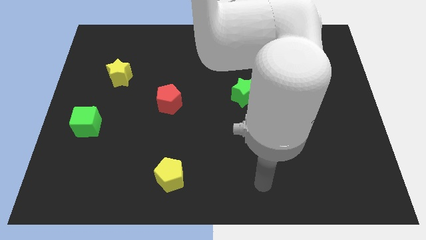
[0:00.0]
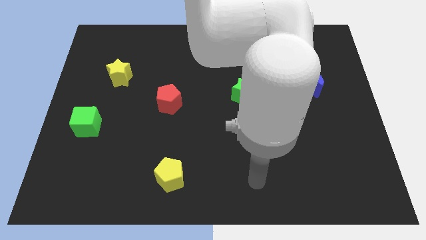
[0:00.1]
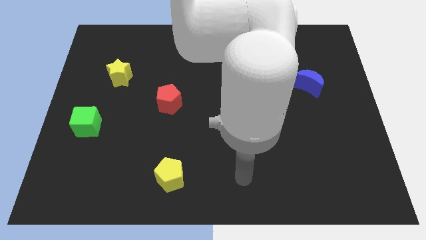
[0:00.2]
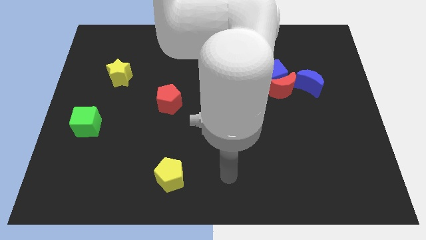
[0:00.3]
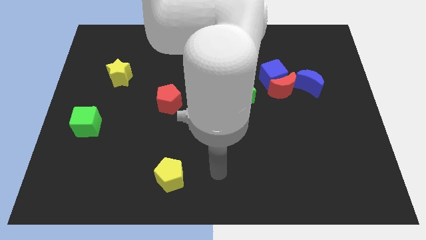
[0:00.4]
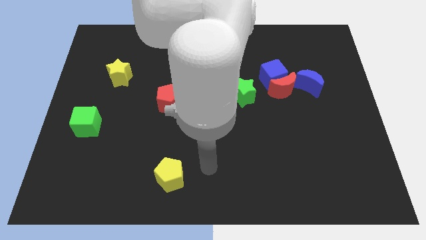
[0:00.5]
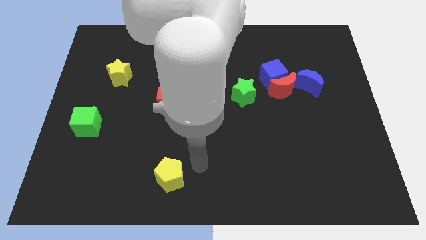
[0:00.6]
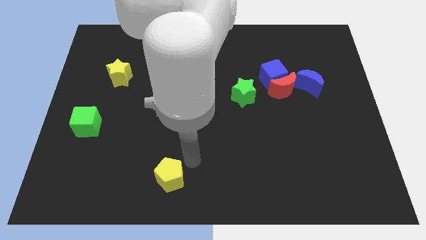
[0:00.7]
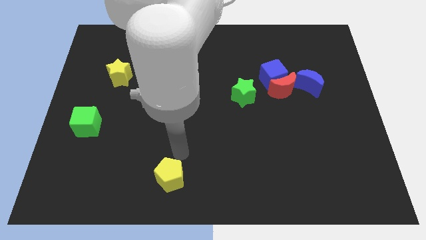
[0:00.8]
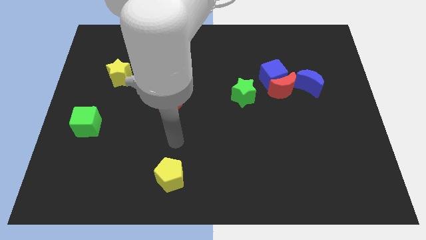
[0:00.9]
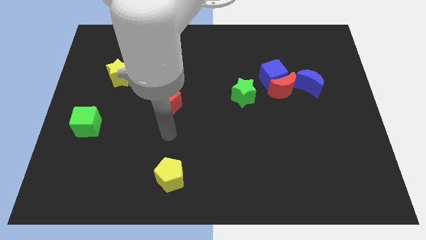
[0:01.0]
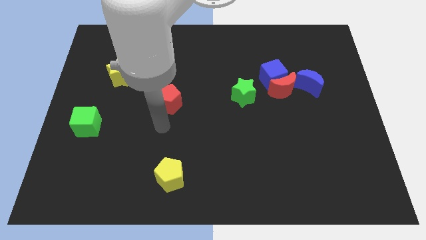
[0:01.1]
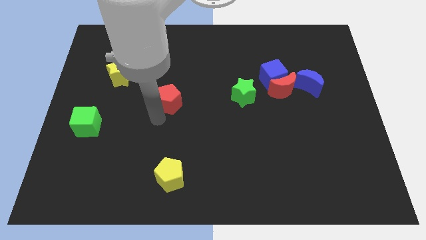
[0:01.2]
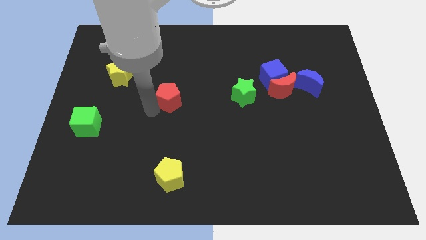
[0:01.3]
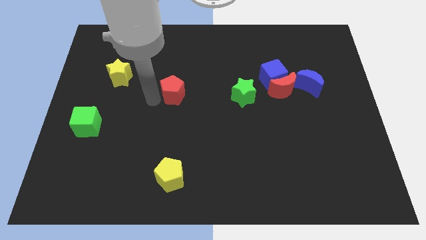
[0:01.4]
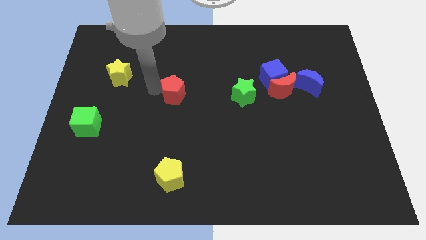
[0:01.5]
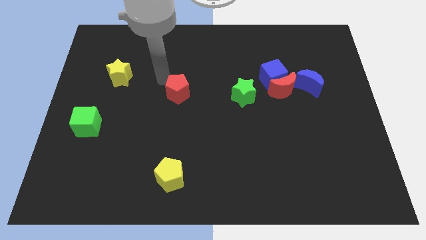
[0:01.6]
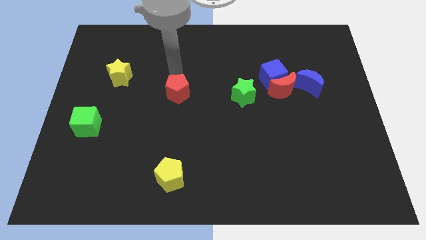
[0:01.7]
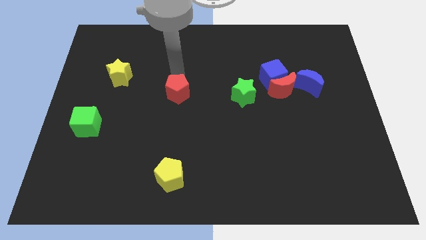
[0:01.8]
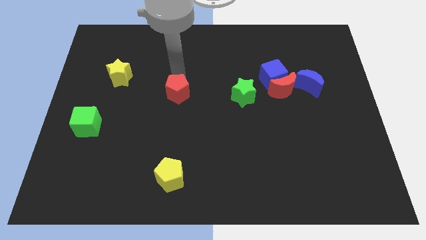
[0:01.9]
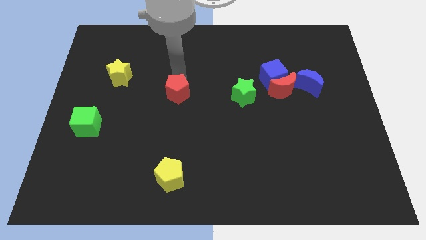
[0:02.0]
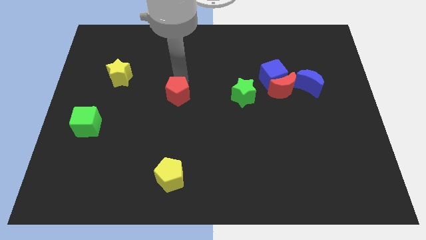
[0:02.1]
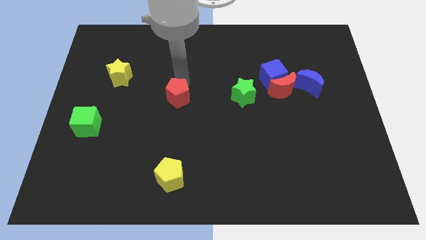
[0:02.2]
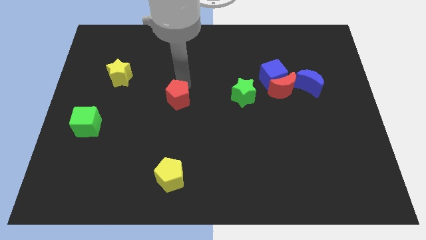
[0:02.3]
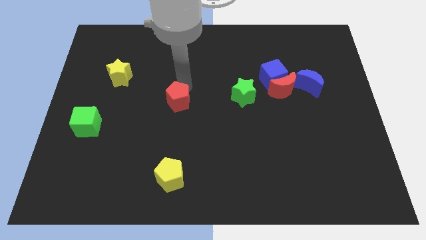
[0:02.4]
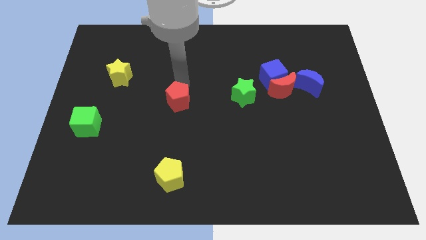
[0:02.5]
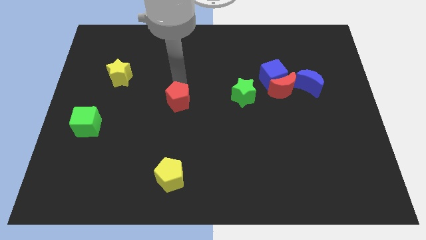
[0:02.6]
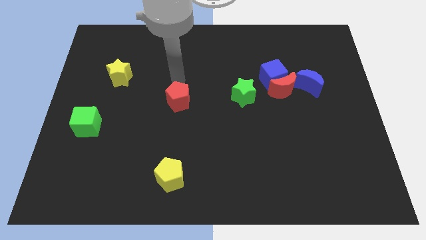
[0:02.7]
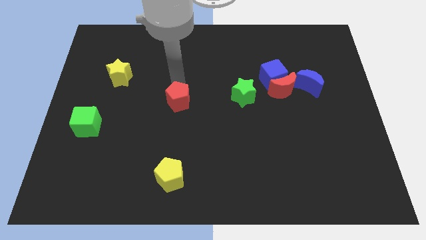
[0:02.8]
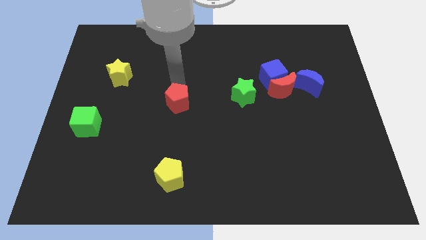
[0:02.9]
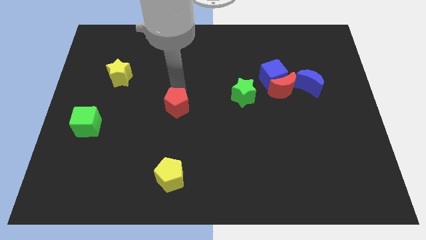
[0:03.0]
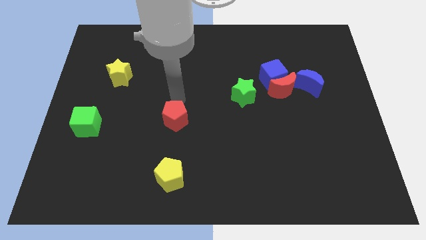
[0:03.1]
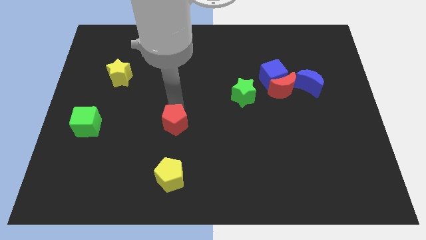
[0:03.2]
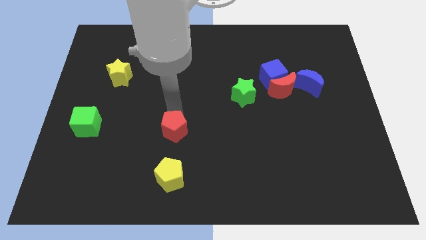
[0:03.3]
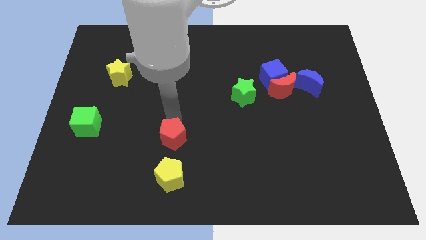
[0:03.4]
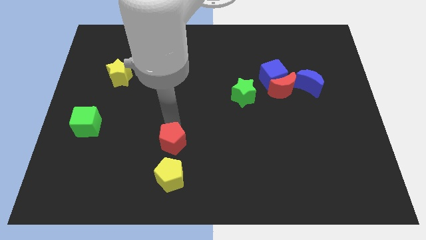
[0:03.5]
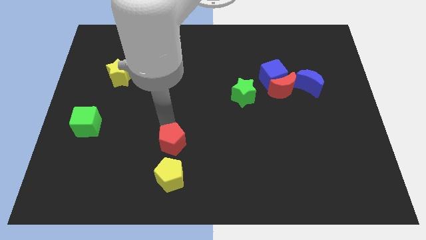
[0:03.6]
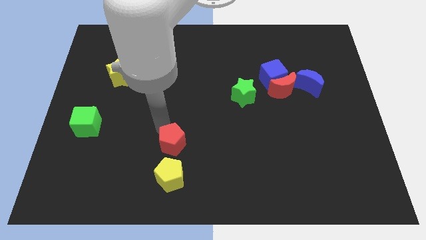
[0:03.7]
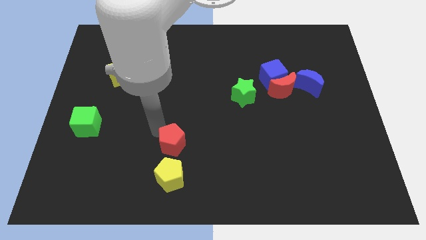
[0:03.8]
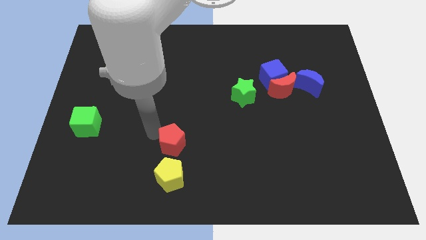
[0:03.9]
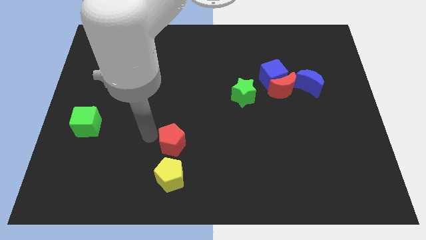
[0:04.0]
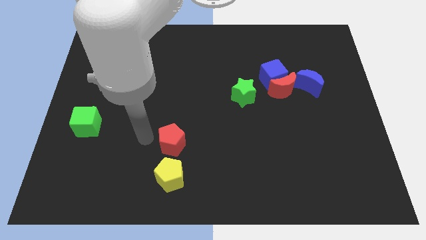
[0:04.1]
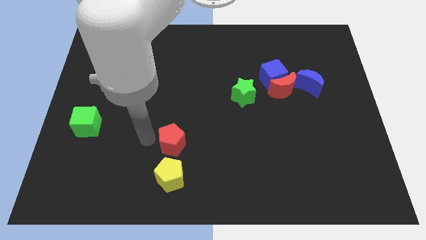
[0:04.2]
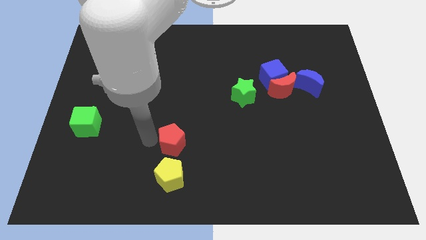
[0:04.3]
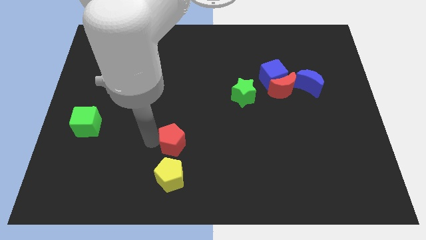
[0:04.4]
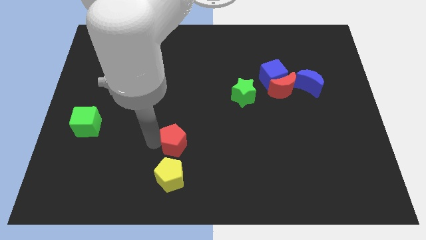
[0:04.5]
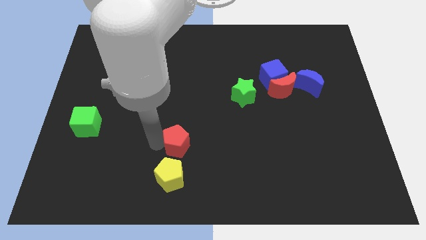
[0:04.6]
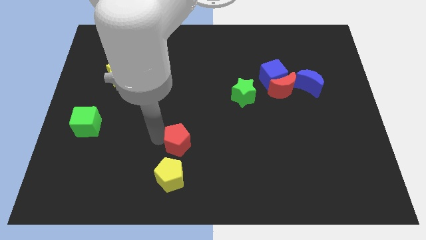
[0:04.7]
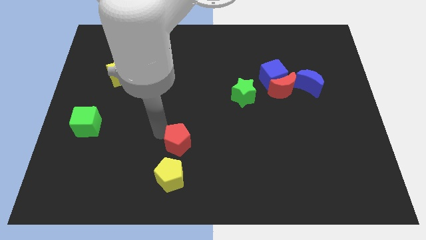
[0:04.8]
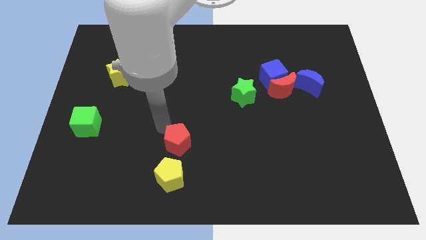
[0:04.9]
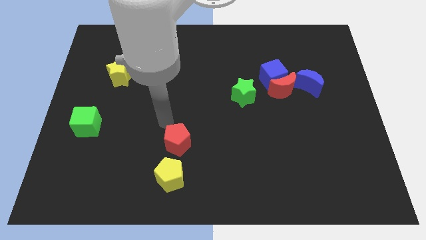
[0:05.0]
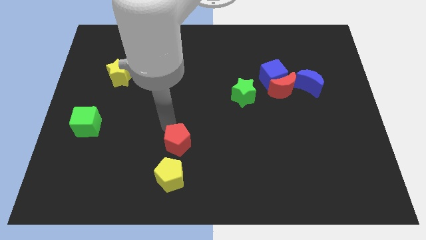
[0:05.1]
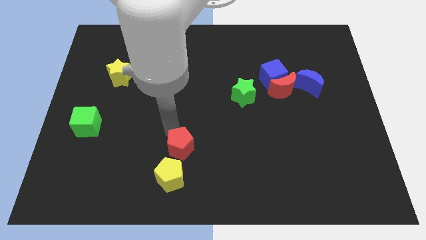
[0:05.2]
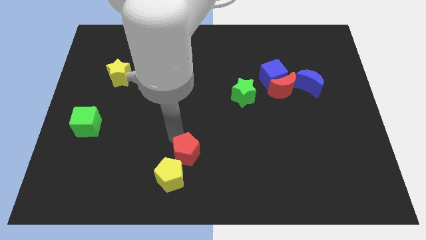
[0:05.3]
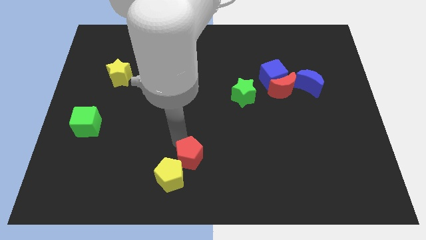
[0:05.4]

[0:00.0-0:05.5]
push the red pentagon to the bottom side

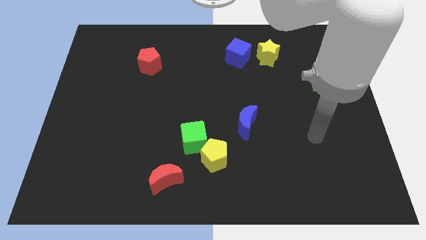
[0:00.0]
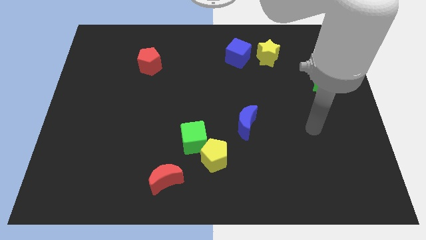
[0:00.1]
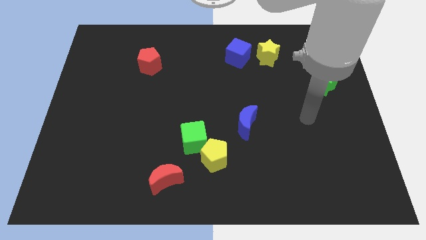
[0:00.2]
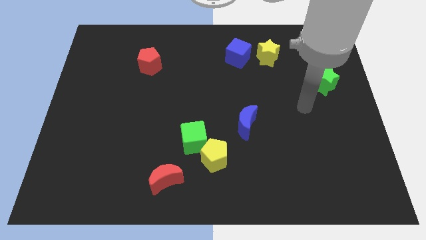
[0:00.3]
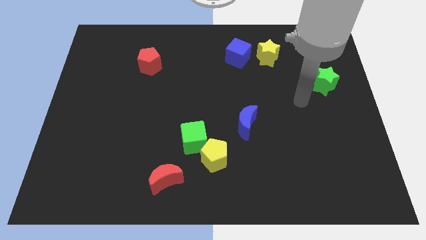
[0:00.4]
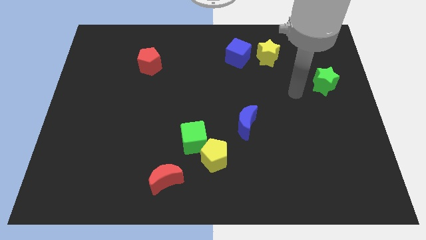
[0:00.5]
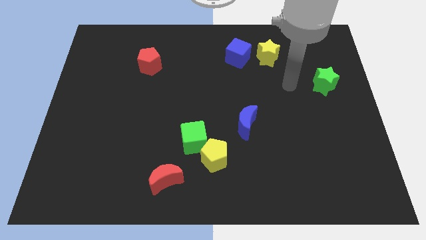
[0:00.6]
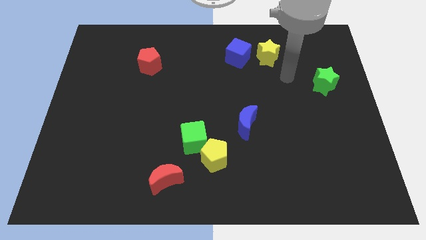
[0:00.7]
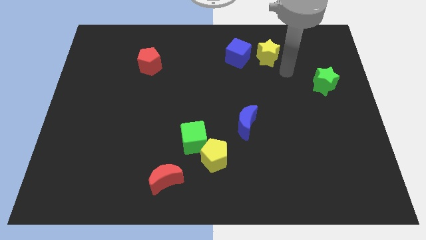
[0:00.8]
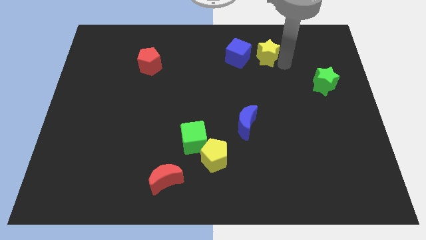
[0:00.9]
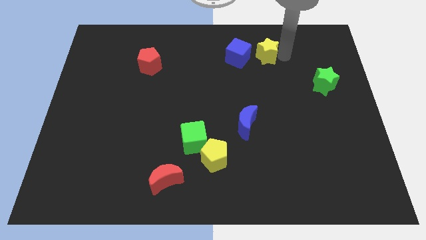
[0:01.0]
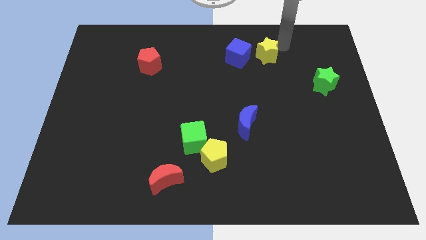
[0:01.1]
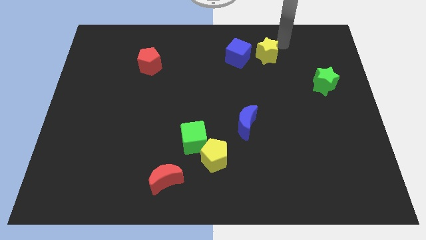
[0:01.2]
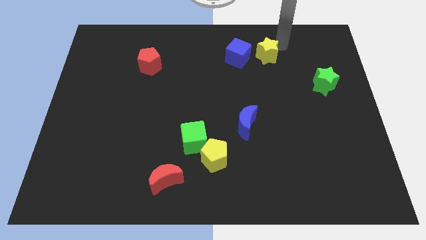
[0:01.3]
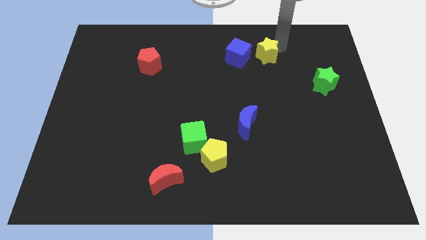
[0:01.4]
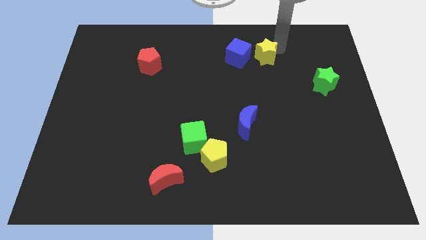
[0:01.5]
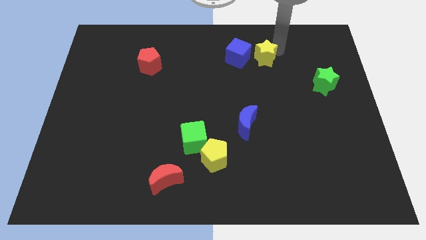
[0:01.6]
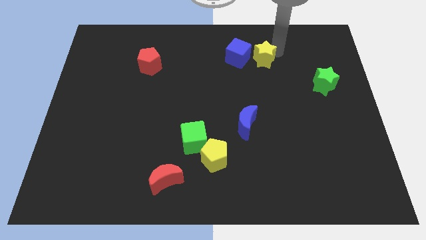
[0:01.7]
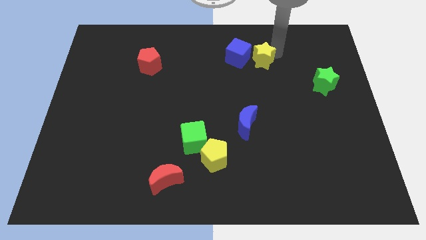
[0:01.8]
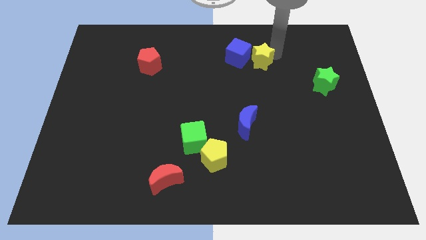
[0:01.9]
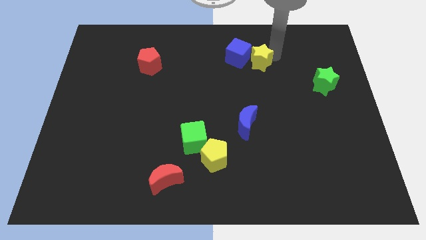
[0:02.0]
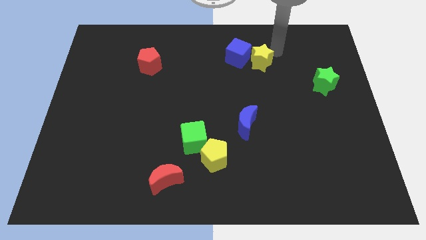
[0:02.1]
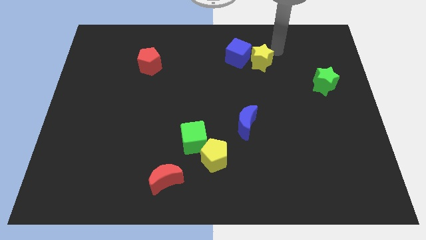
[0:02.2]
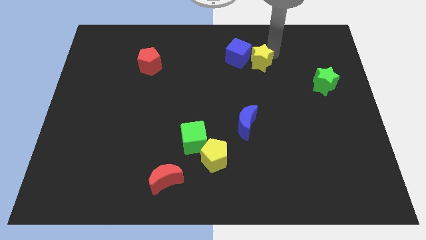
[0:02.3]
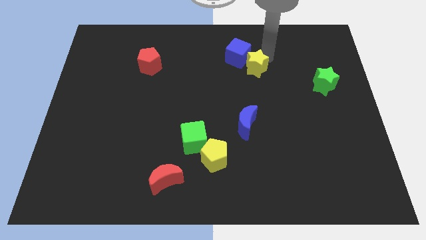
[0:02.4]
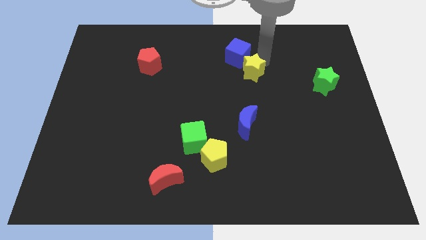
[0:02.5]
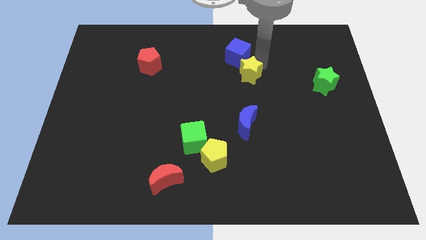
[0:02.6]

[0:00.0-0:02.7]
move the yellow star to the center
